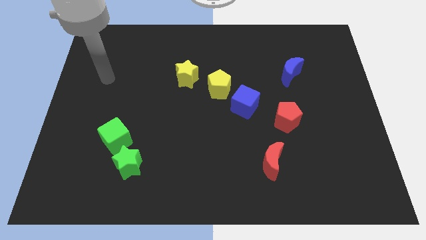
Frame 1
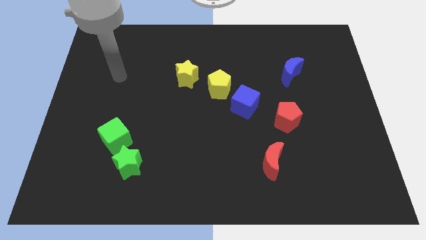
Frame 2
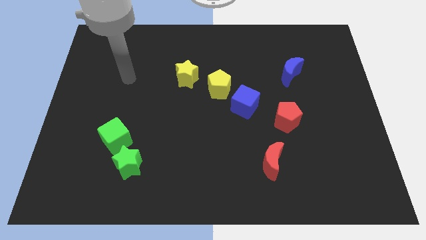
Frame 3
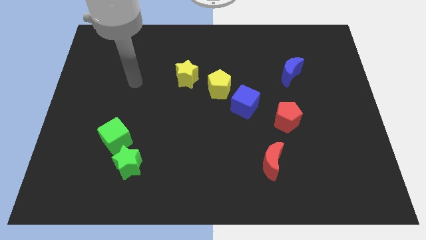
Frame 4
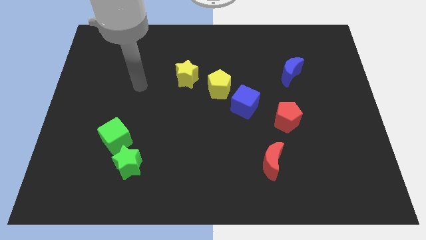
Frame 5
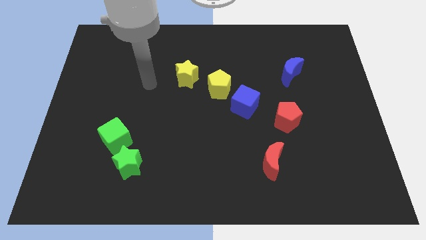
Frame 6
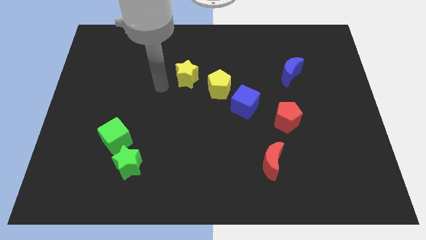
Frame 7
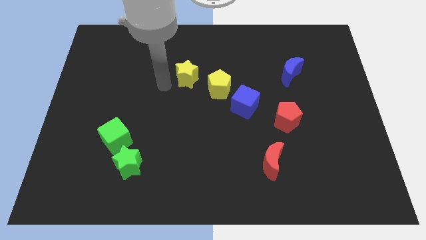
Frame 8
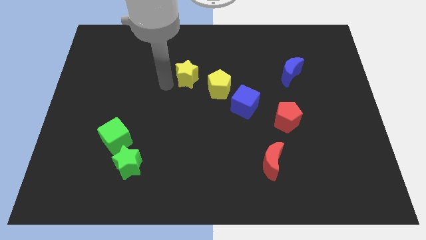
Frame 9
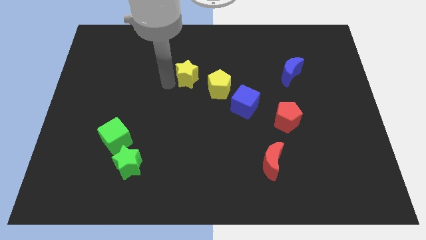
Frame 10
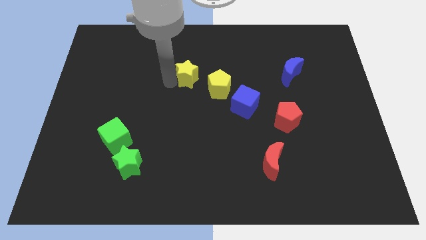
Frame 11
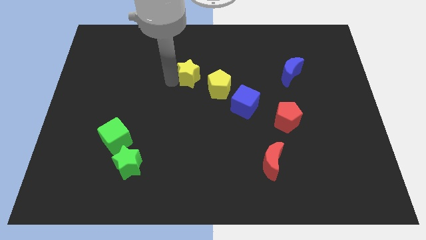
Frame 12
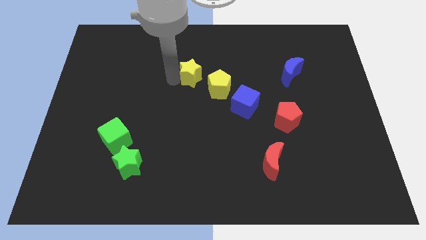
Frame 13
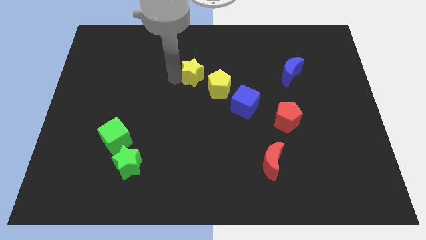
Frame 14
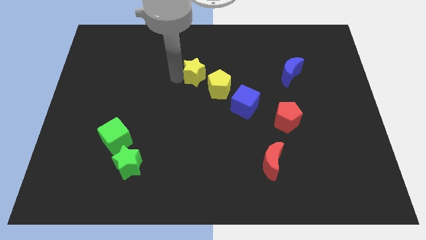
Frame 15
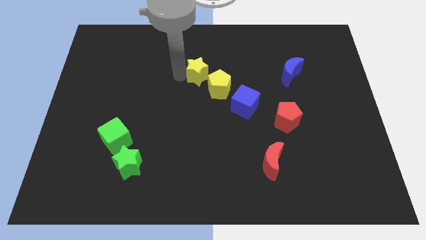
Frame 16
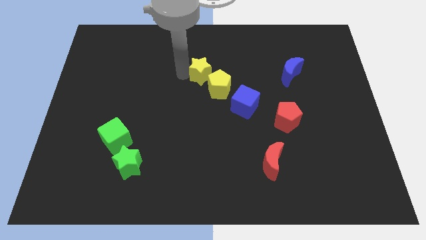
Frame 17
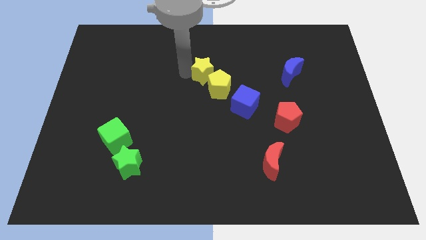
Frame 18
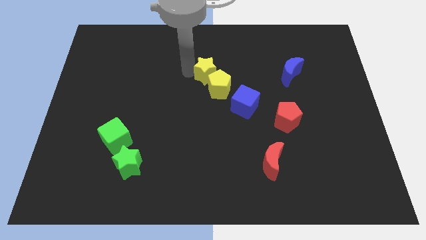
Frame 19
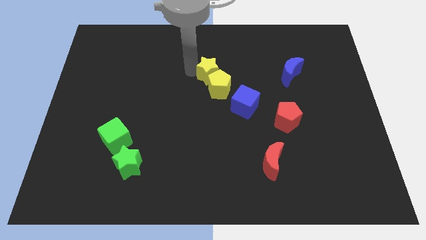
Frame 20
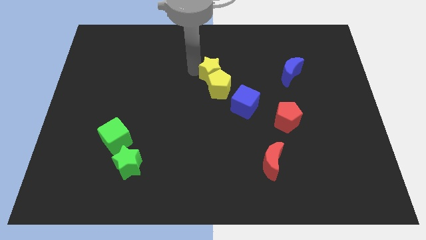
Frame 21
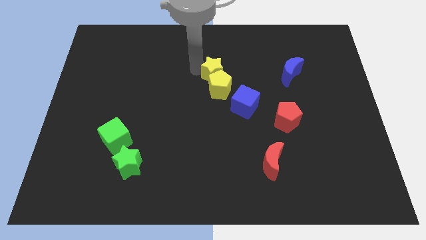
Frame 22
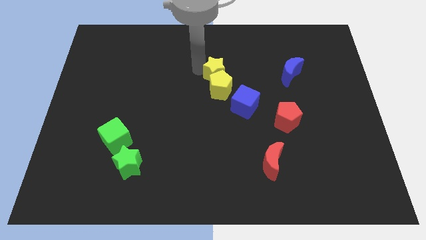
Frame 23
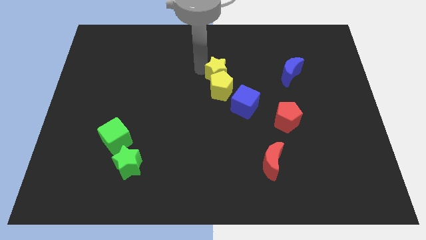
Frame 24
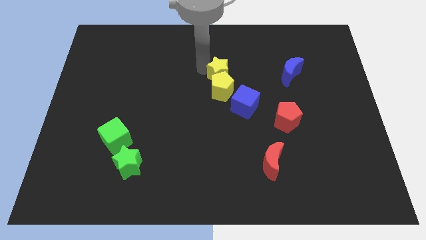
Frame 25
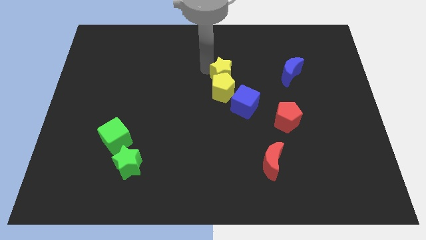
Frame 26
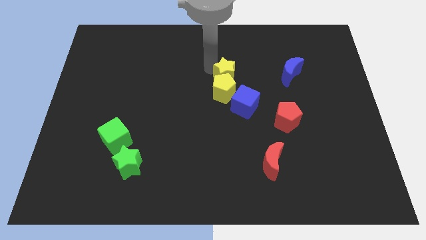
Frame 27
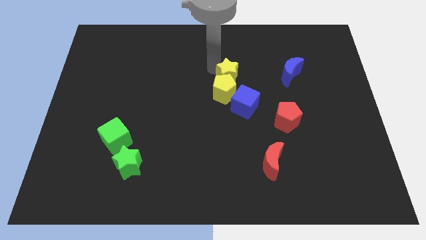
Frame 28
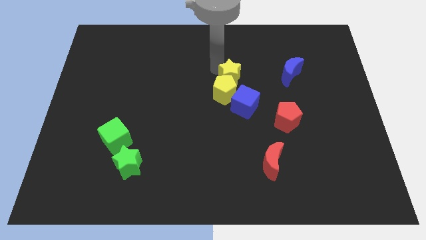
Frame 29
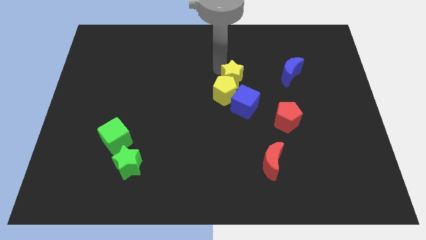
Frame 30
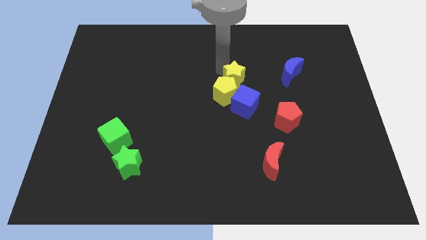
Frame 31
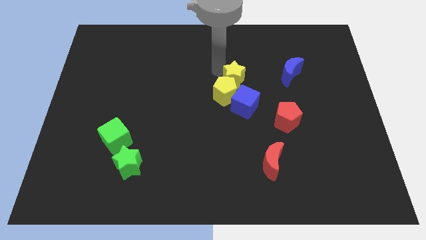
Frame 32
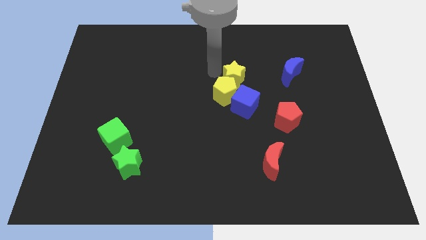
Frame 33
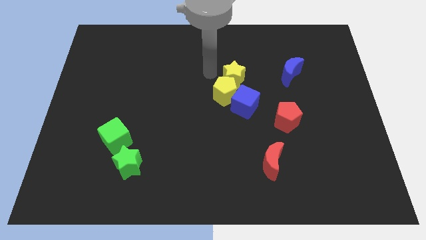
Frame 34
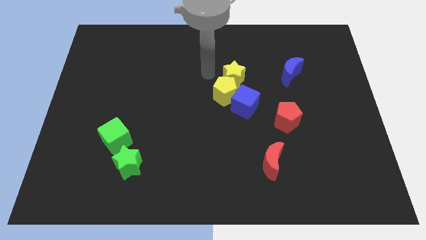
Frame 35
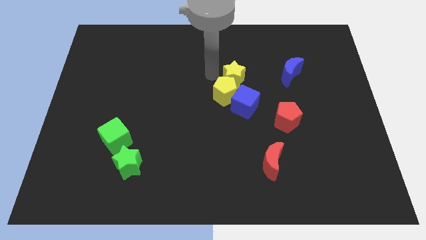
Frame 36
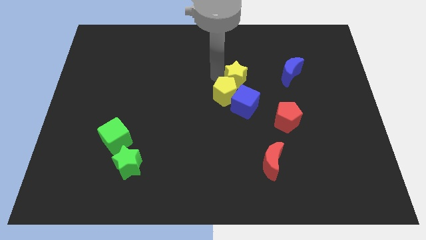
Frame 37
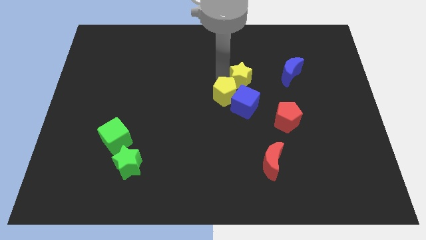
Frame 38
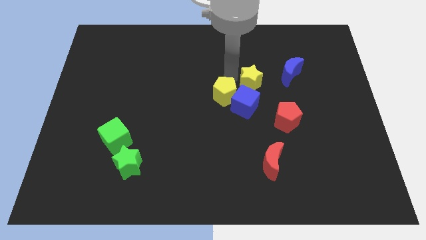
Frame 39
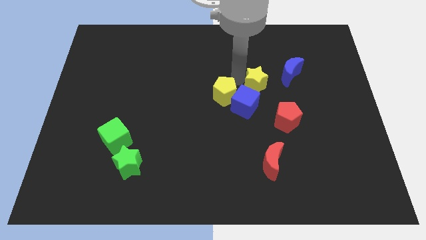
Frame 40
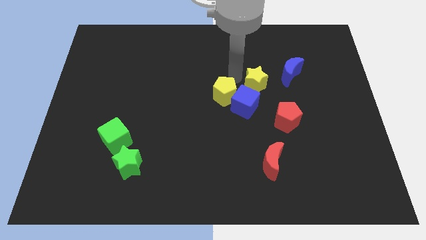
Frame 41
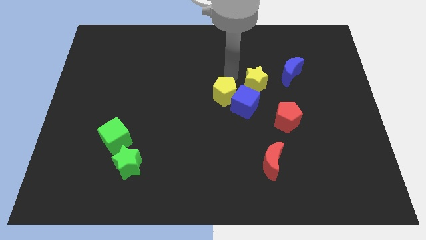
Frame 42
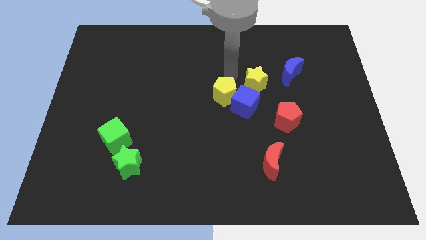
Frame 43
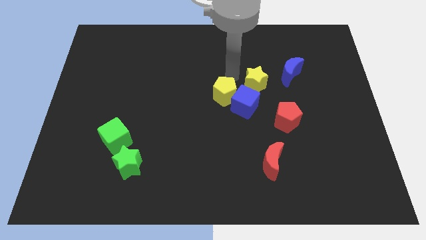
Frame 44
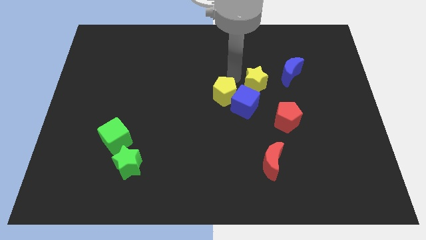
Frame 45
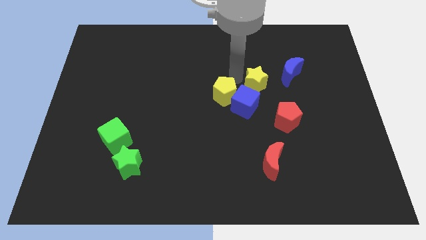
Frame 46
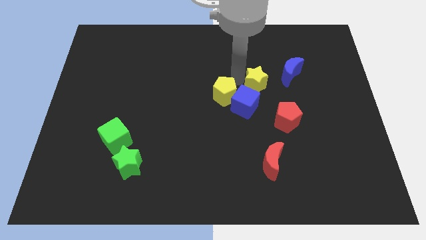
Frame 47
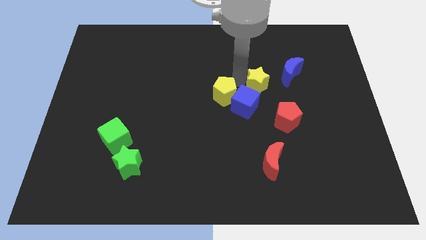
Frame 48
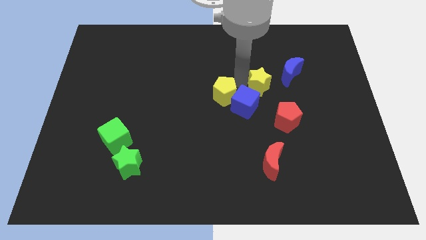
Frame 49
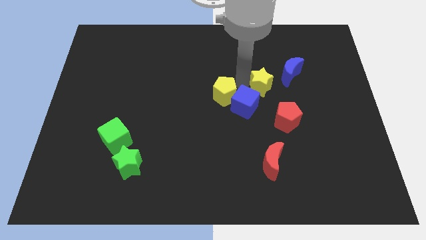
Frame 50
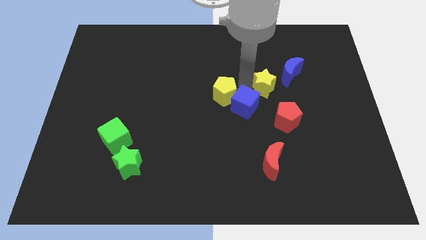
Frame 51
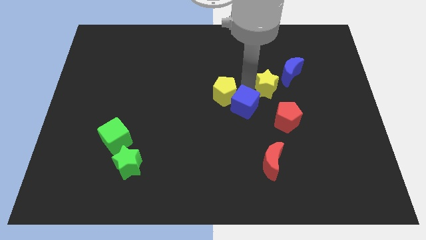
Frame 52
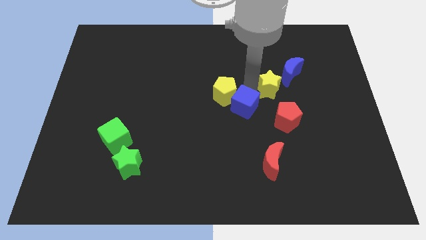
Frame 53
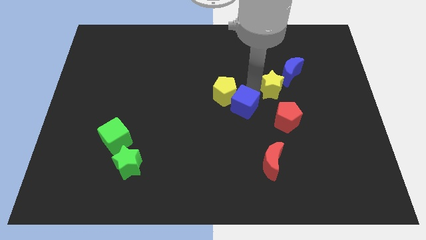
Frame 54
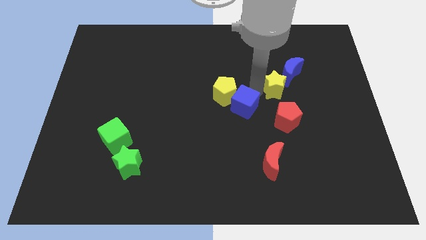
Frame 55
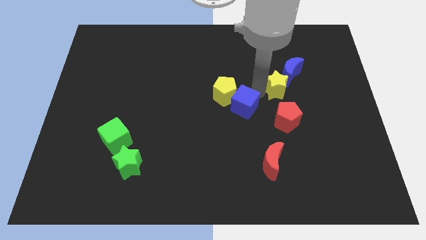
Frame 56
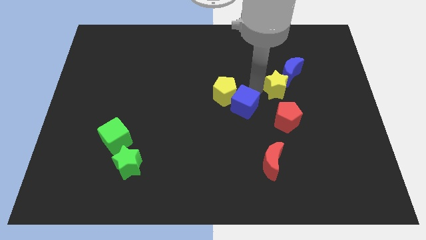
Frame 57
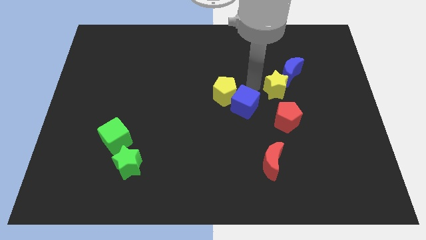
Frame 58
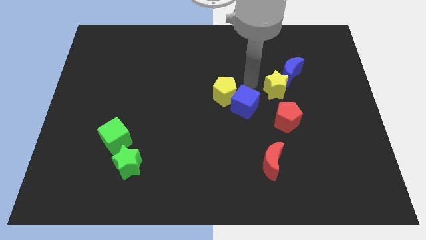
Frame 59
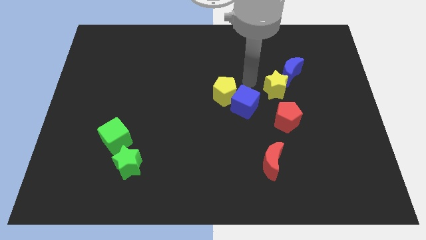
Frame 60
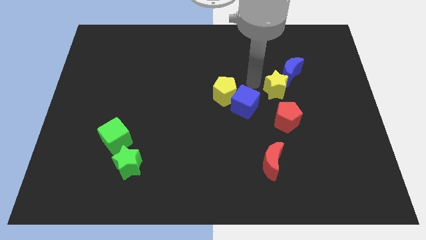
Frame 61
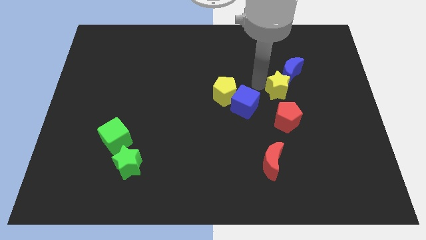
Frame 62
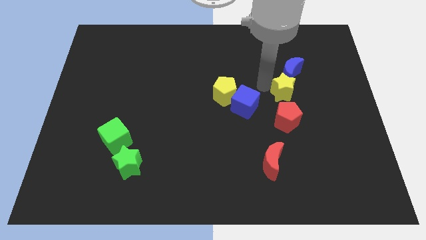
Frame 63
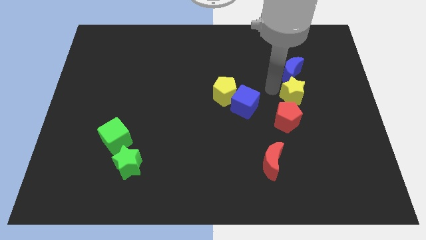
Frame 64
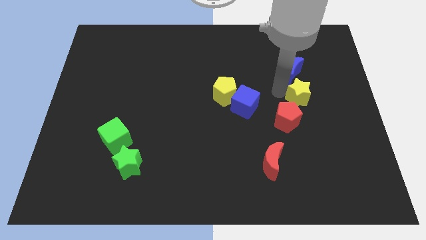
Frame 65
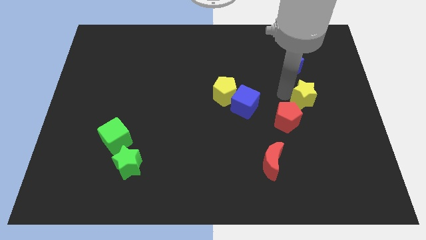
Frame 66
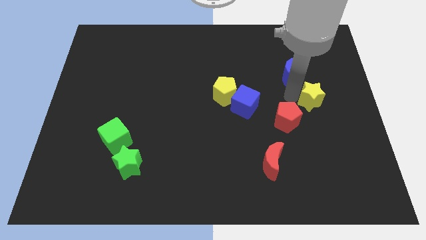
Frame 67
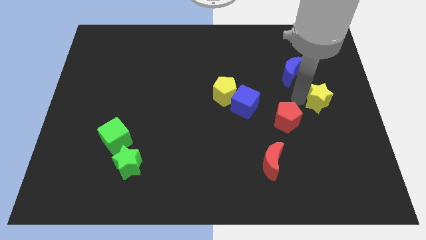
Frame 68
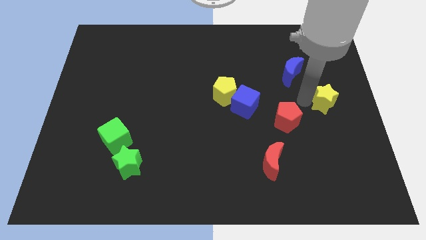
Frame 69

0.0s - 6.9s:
put the yellow star to the center right
